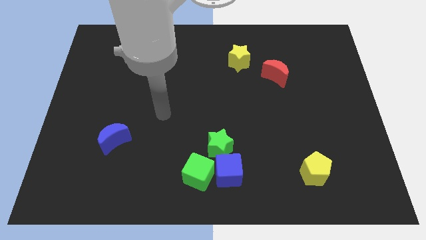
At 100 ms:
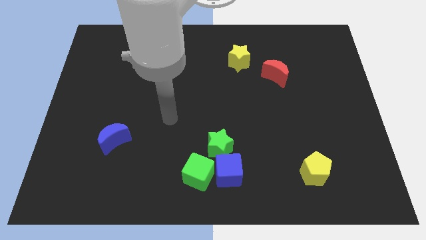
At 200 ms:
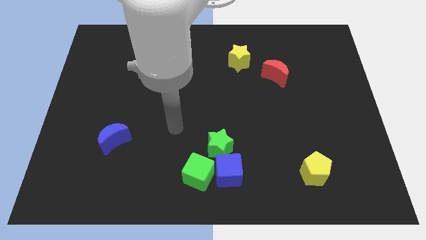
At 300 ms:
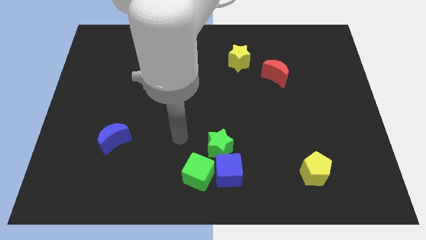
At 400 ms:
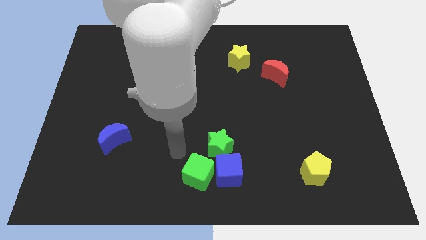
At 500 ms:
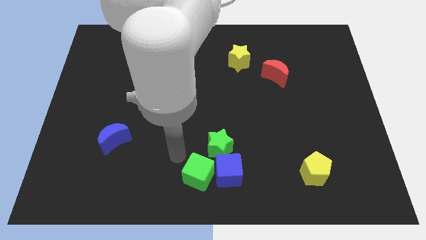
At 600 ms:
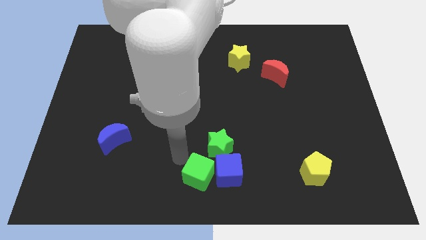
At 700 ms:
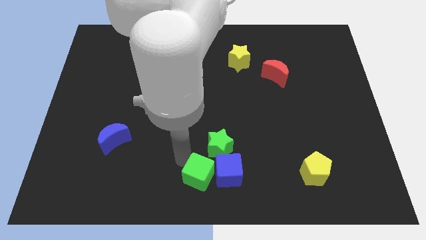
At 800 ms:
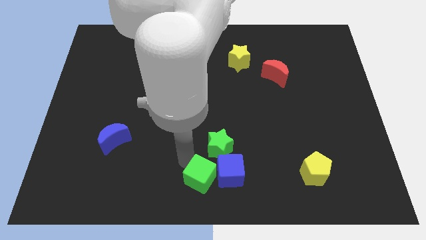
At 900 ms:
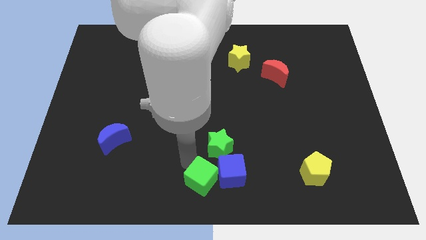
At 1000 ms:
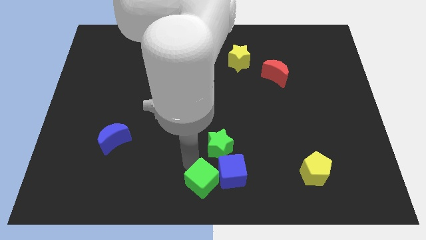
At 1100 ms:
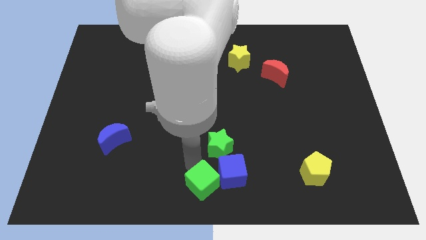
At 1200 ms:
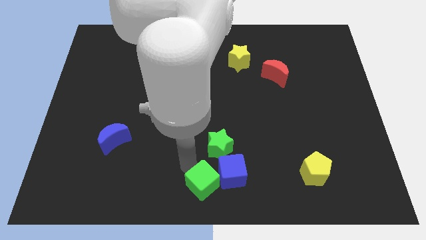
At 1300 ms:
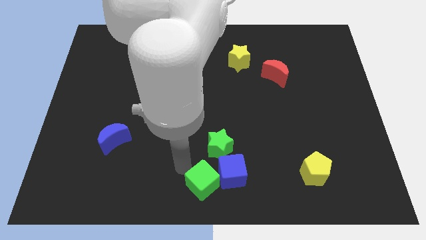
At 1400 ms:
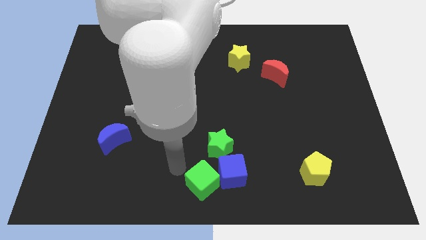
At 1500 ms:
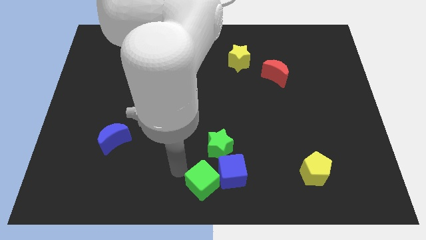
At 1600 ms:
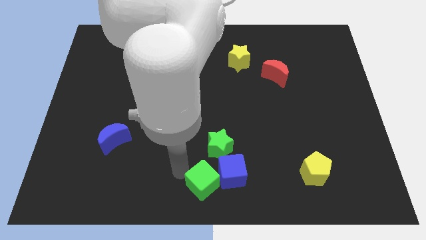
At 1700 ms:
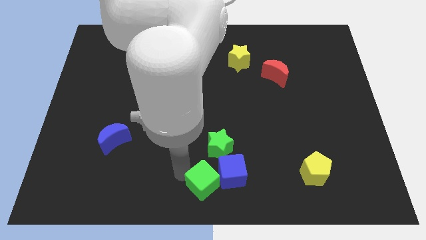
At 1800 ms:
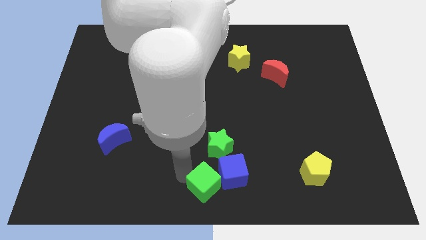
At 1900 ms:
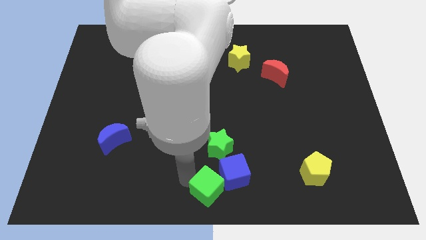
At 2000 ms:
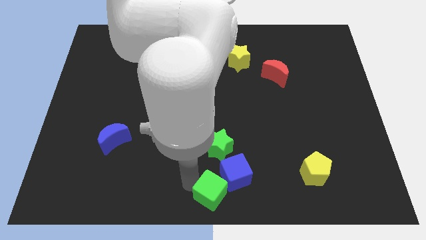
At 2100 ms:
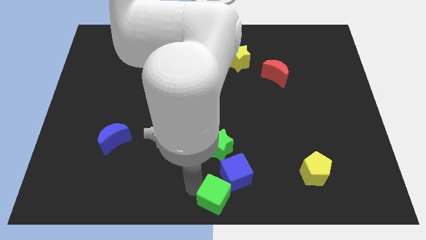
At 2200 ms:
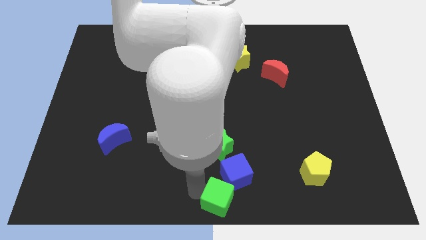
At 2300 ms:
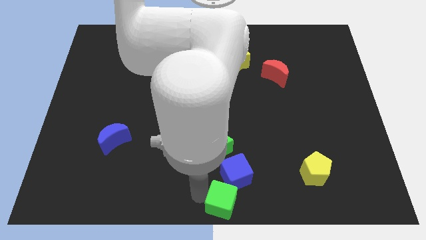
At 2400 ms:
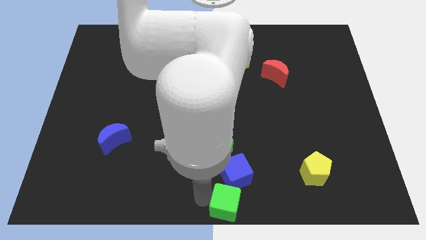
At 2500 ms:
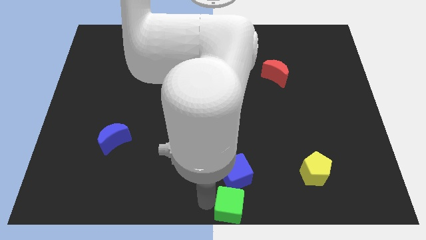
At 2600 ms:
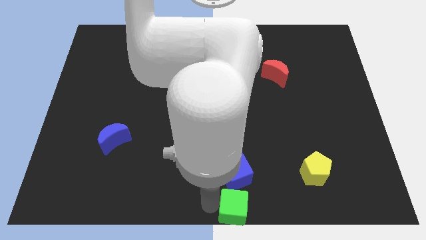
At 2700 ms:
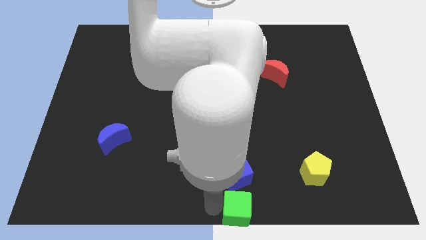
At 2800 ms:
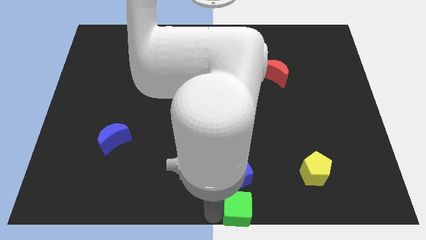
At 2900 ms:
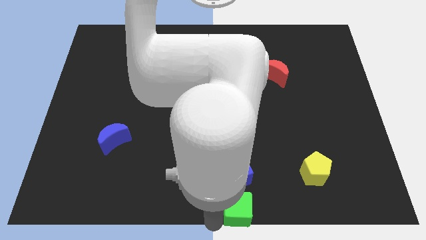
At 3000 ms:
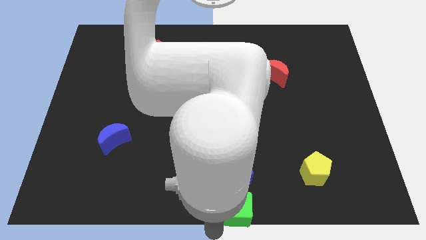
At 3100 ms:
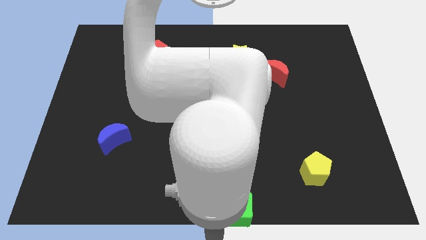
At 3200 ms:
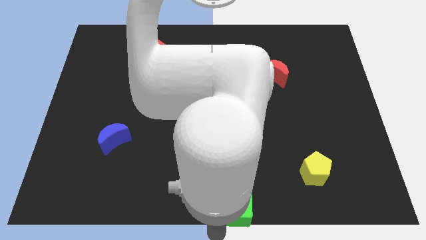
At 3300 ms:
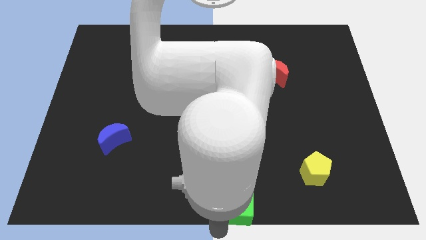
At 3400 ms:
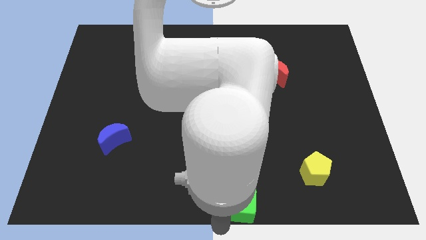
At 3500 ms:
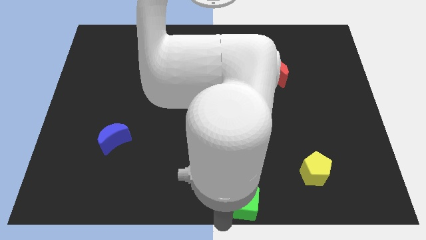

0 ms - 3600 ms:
slightly move the green cube to the right

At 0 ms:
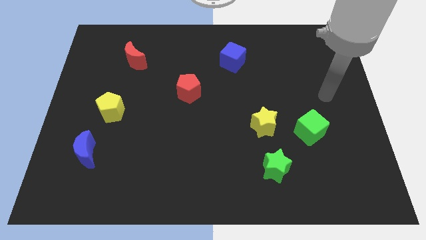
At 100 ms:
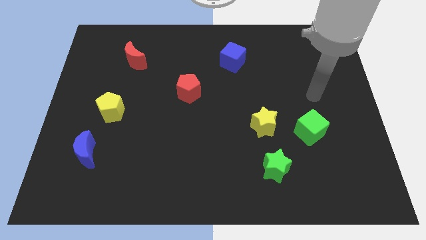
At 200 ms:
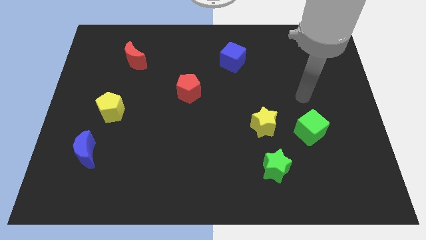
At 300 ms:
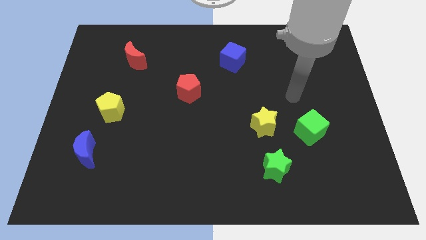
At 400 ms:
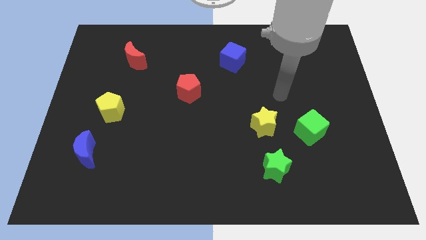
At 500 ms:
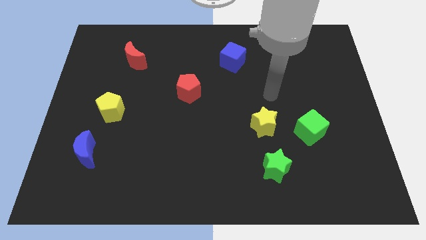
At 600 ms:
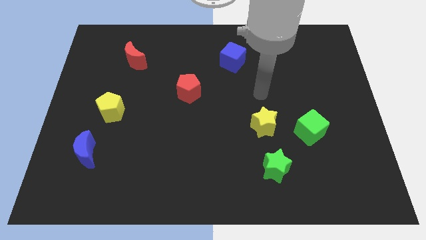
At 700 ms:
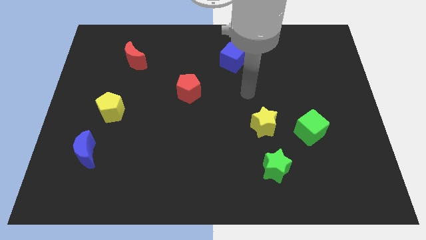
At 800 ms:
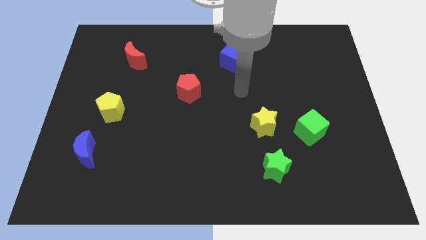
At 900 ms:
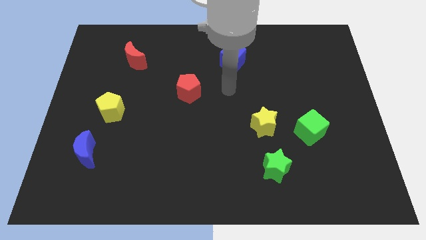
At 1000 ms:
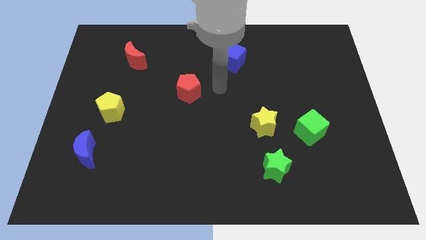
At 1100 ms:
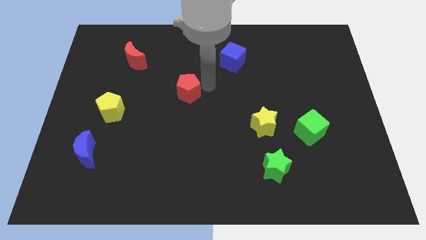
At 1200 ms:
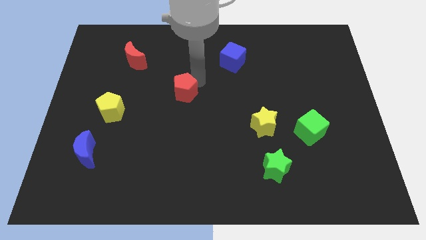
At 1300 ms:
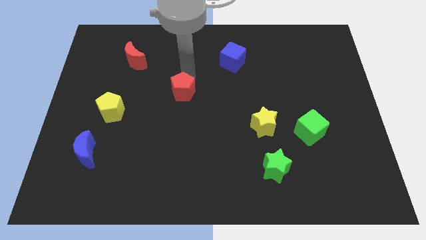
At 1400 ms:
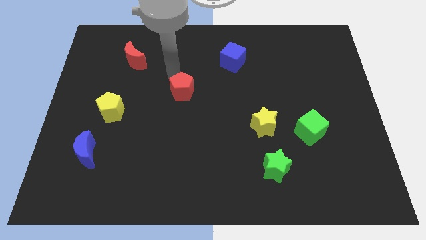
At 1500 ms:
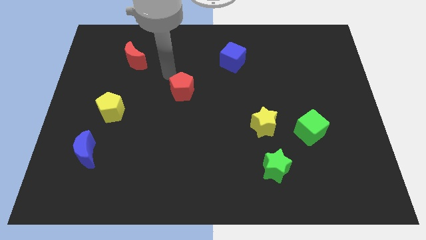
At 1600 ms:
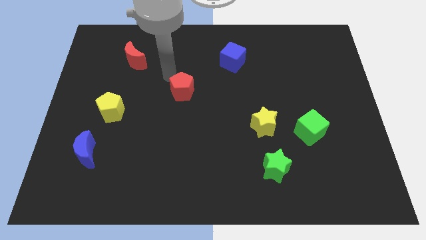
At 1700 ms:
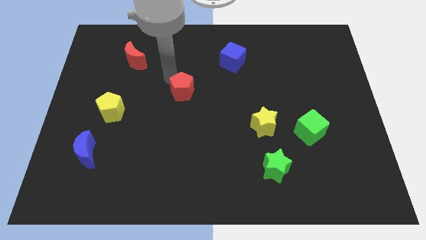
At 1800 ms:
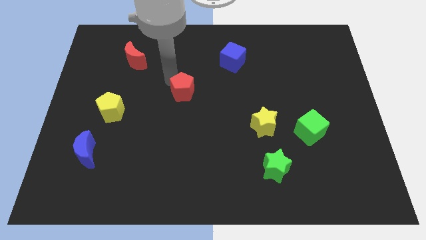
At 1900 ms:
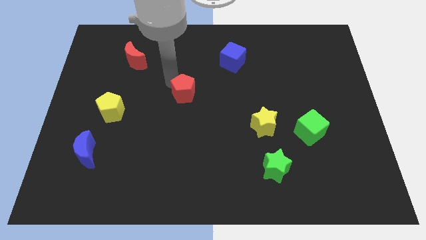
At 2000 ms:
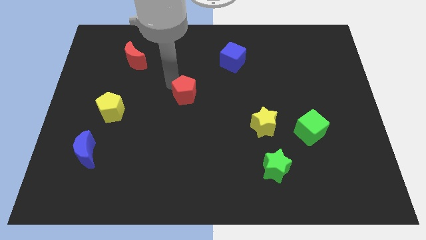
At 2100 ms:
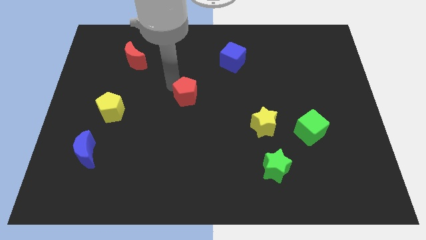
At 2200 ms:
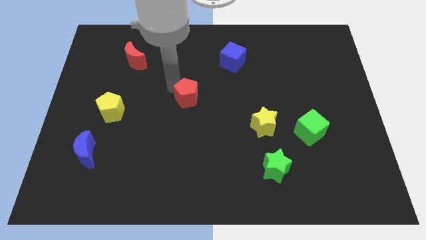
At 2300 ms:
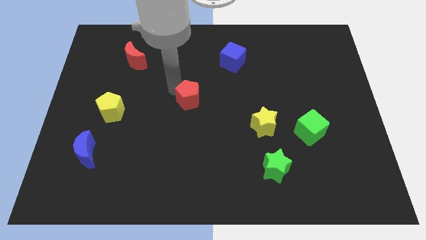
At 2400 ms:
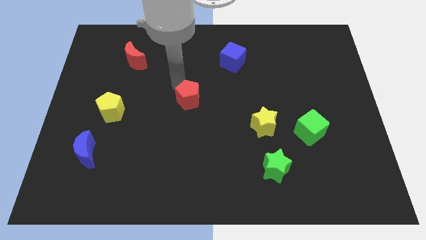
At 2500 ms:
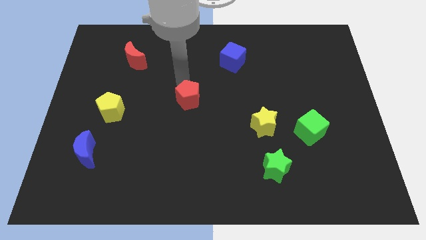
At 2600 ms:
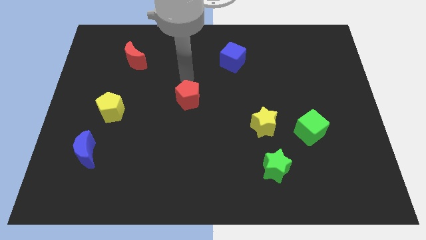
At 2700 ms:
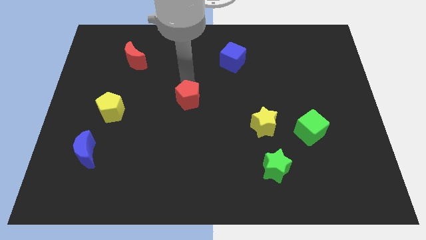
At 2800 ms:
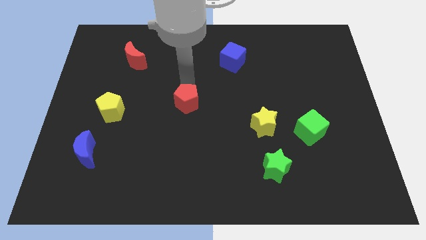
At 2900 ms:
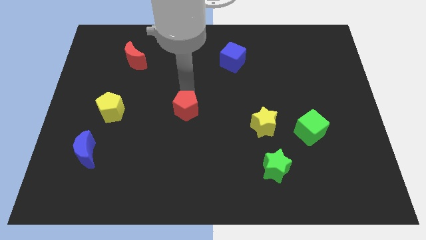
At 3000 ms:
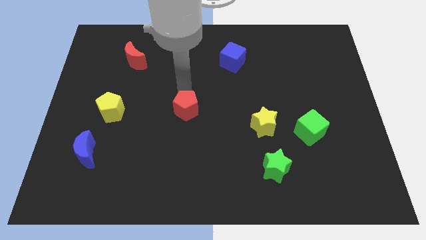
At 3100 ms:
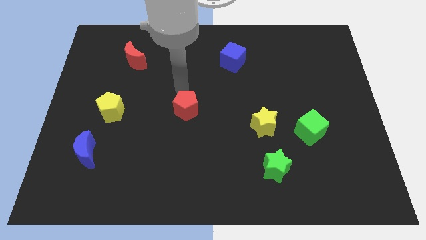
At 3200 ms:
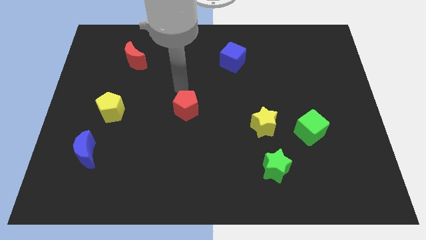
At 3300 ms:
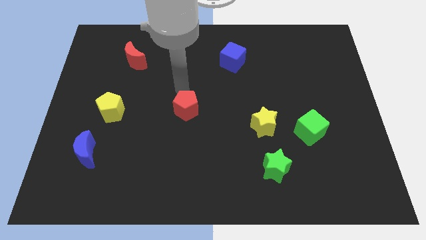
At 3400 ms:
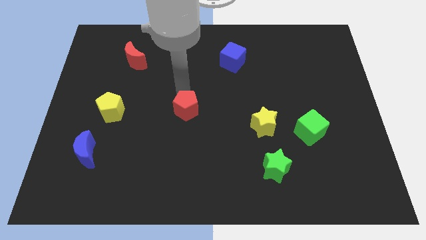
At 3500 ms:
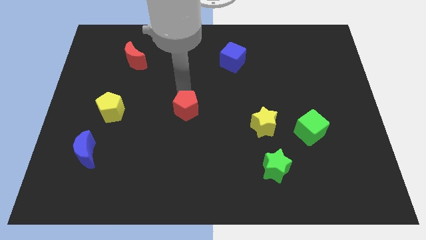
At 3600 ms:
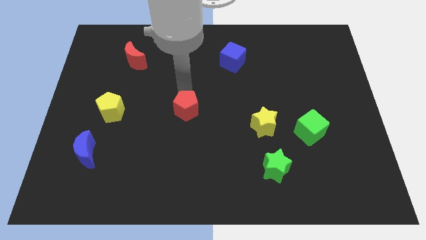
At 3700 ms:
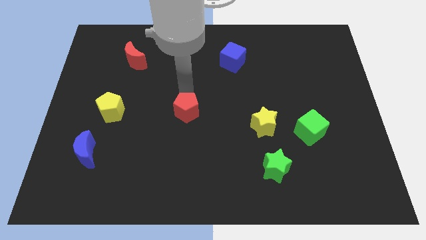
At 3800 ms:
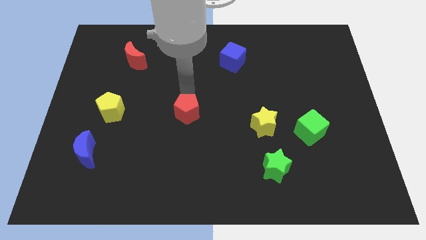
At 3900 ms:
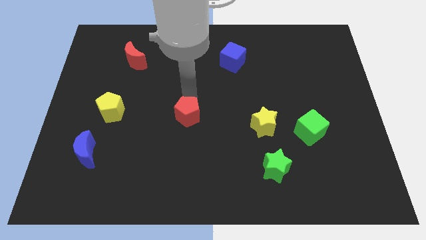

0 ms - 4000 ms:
slightly slide the red pentagon downwards

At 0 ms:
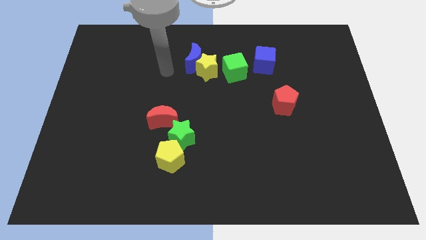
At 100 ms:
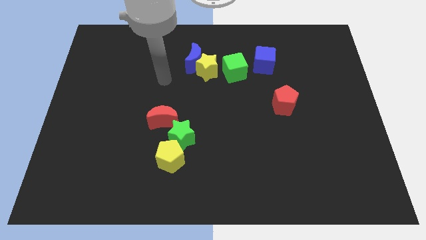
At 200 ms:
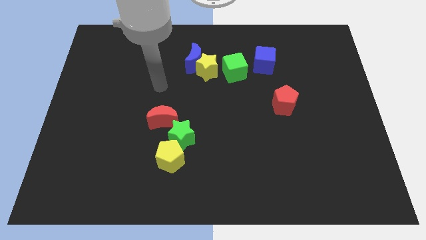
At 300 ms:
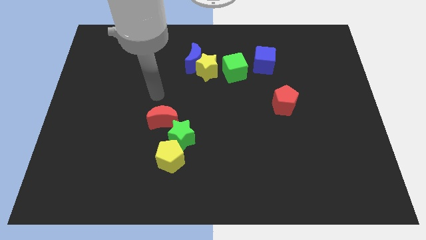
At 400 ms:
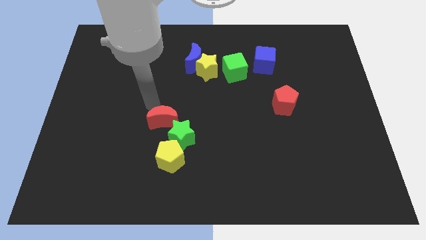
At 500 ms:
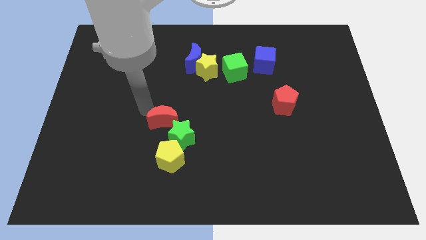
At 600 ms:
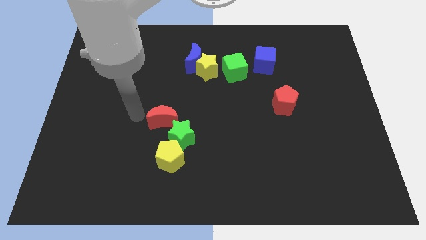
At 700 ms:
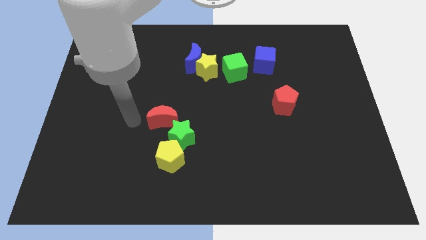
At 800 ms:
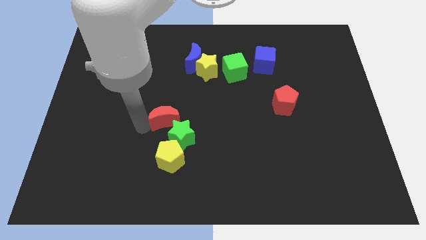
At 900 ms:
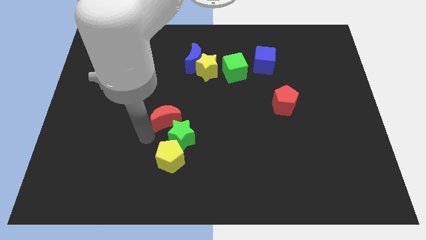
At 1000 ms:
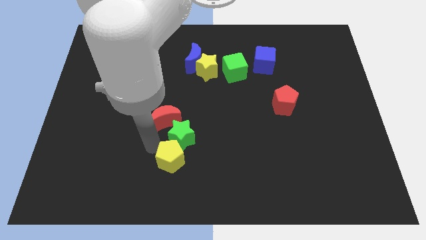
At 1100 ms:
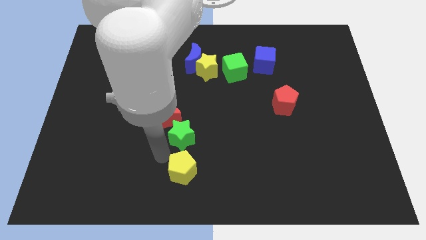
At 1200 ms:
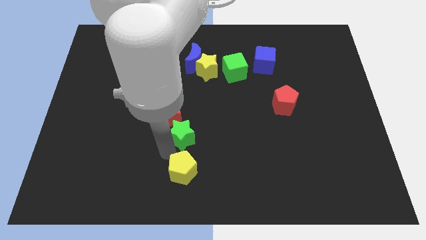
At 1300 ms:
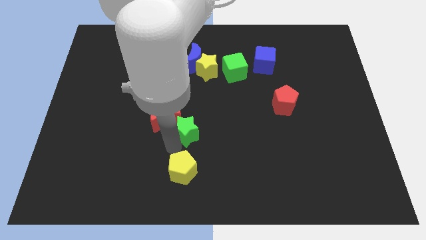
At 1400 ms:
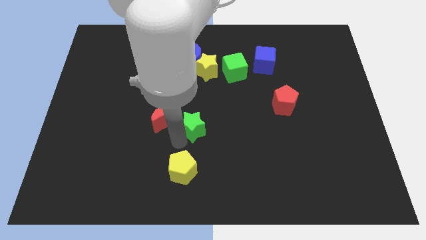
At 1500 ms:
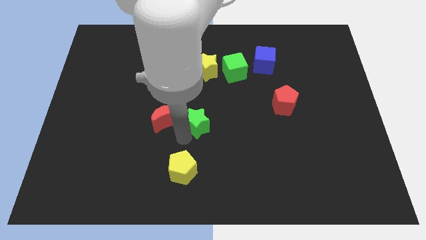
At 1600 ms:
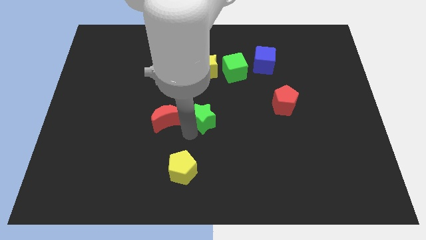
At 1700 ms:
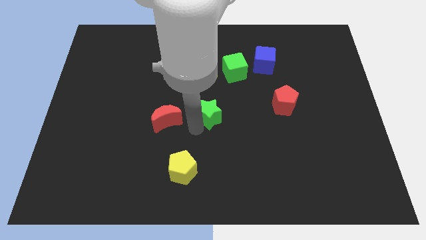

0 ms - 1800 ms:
slightly slide the green star up and to the right
